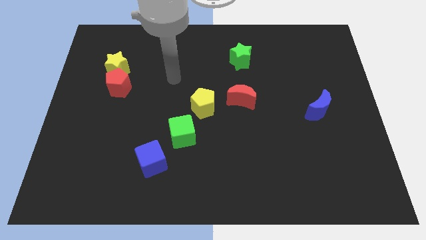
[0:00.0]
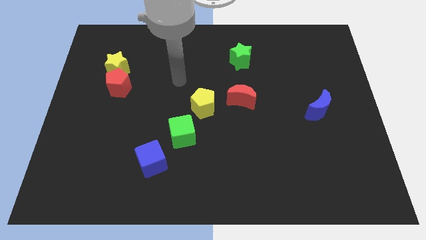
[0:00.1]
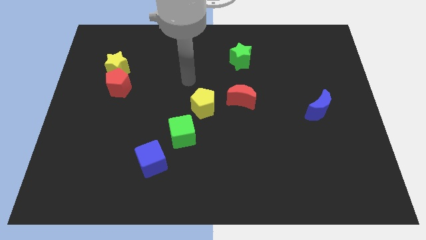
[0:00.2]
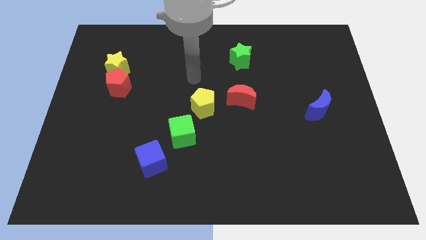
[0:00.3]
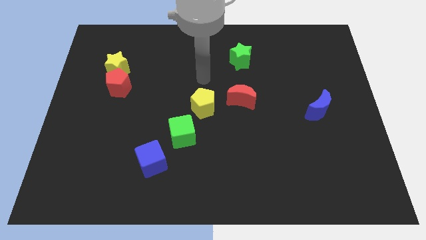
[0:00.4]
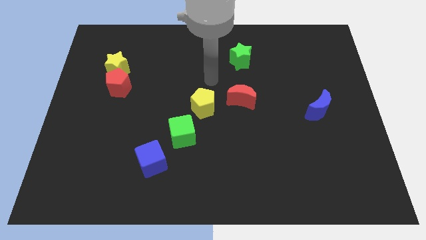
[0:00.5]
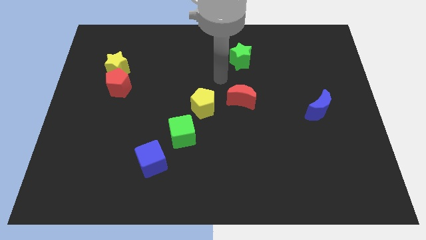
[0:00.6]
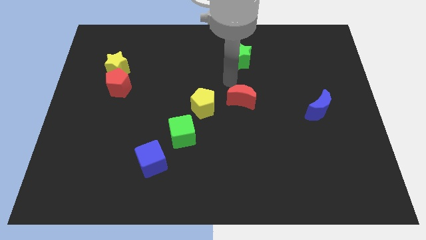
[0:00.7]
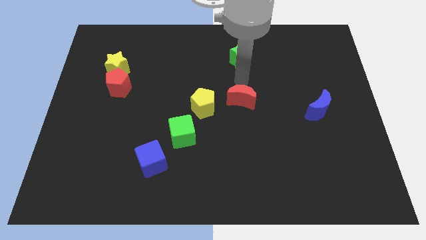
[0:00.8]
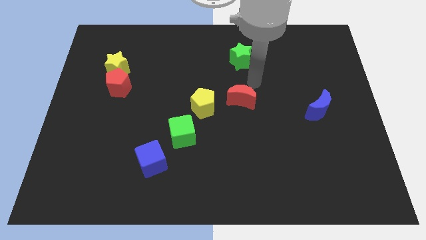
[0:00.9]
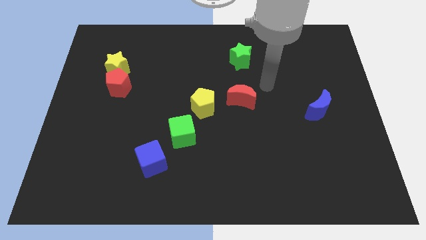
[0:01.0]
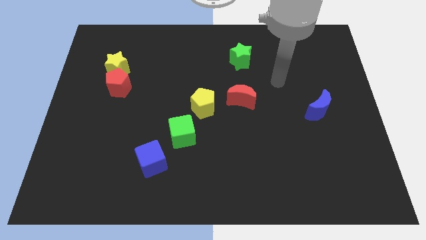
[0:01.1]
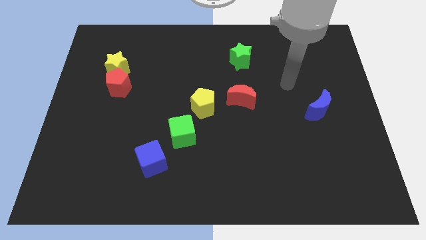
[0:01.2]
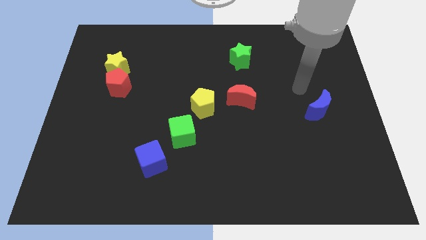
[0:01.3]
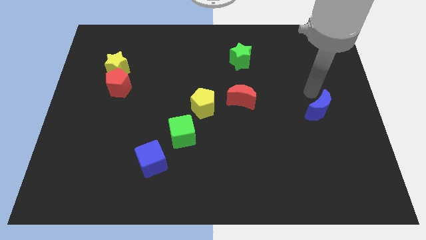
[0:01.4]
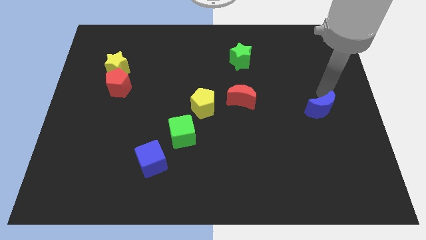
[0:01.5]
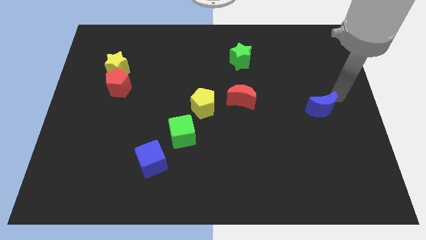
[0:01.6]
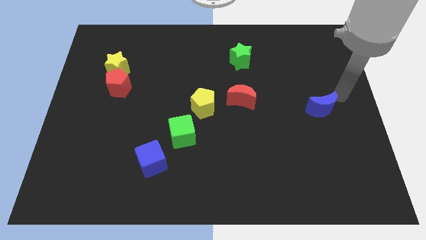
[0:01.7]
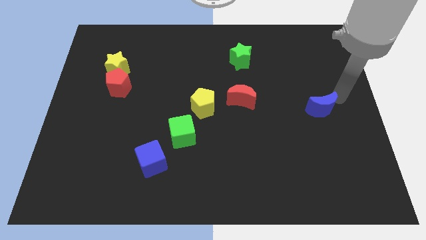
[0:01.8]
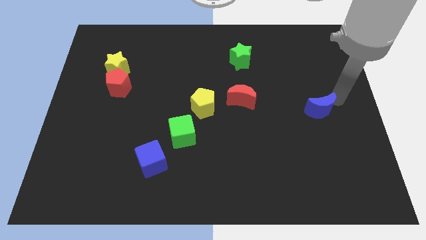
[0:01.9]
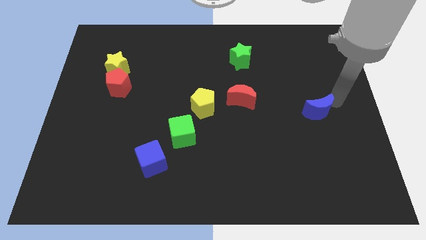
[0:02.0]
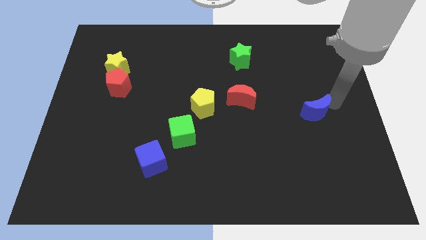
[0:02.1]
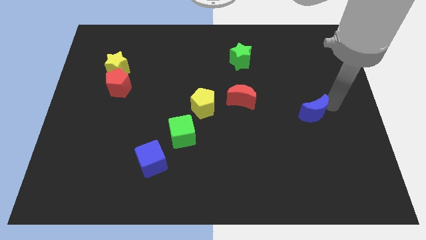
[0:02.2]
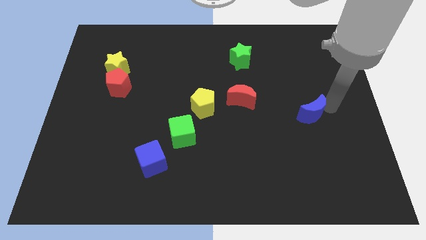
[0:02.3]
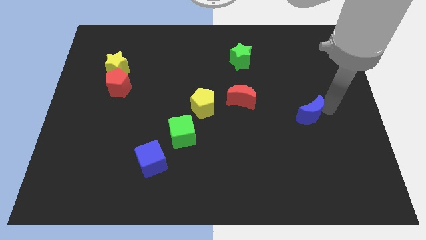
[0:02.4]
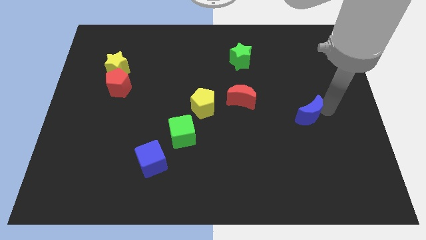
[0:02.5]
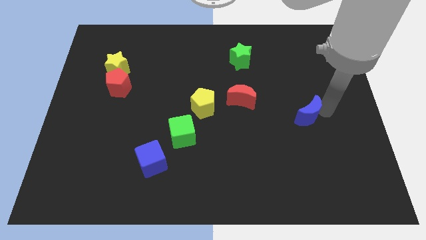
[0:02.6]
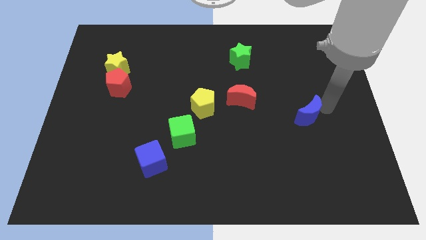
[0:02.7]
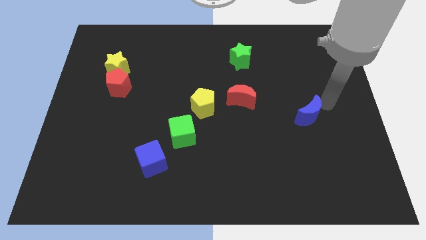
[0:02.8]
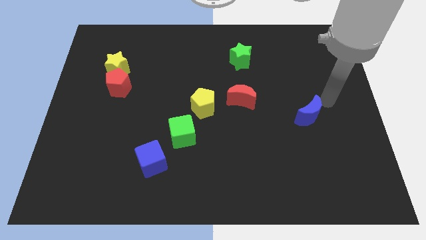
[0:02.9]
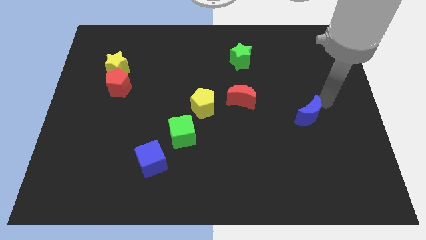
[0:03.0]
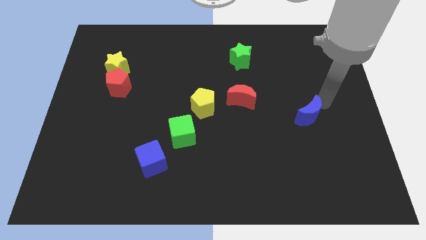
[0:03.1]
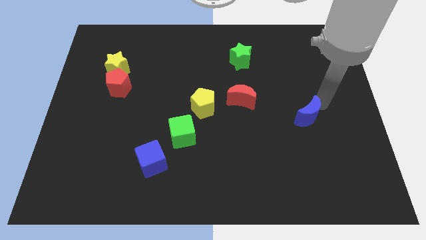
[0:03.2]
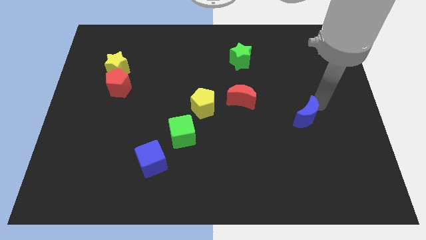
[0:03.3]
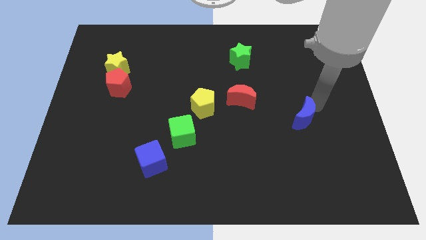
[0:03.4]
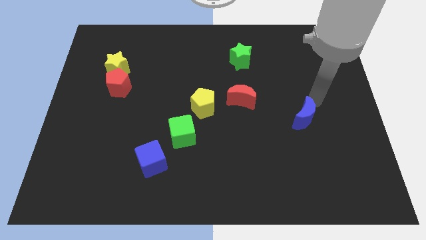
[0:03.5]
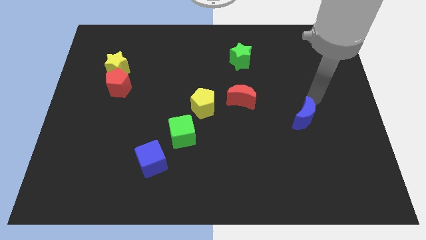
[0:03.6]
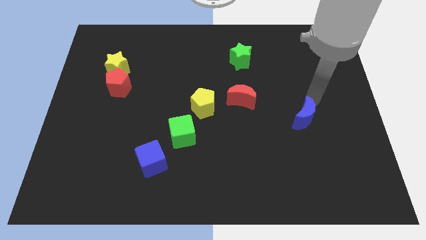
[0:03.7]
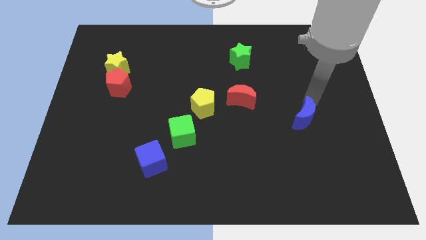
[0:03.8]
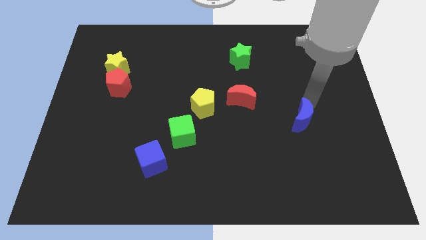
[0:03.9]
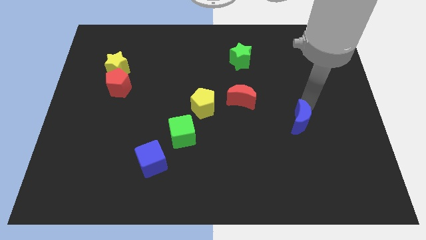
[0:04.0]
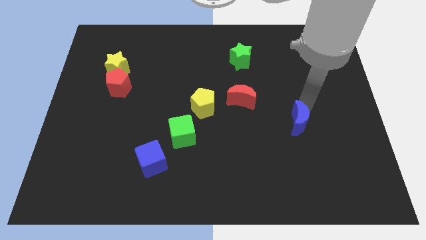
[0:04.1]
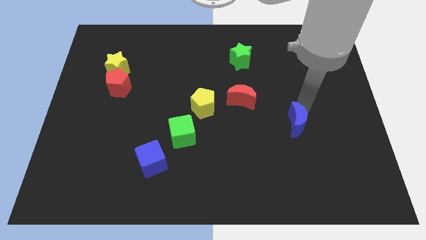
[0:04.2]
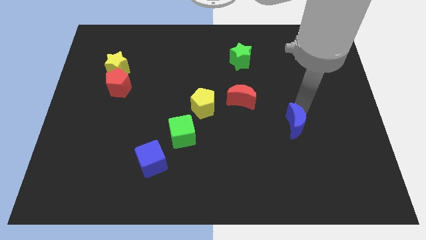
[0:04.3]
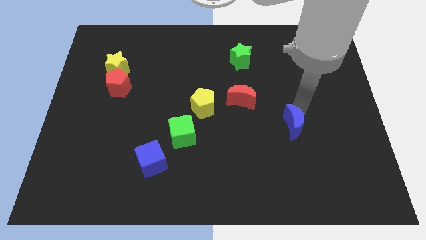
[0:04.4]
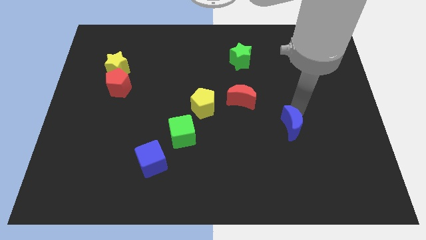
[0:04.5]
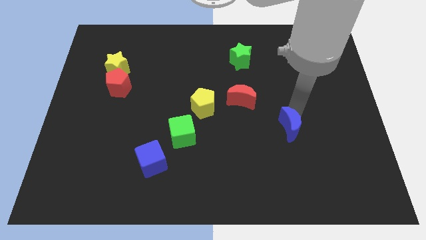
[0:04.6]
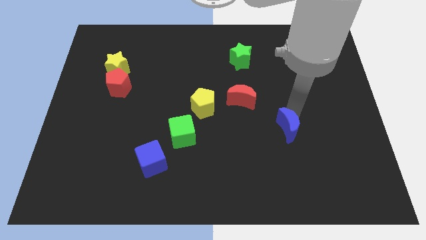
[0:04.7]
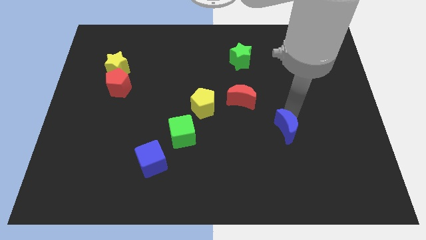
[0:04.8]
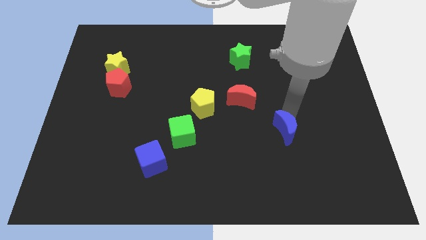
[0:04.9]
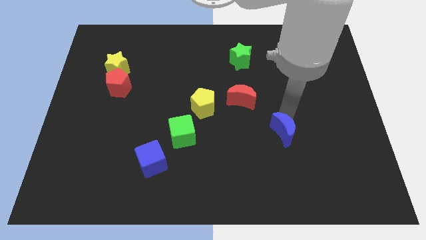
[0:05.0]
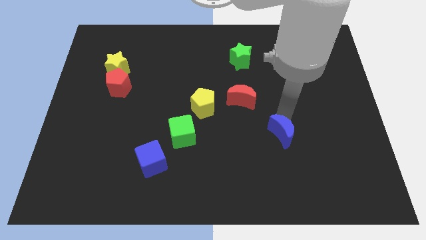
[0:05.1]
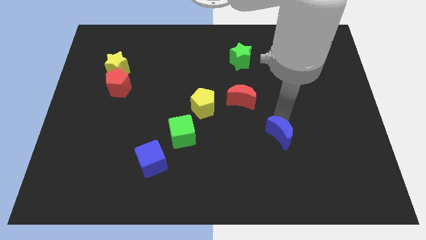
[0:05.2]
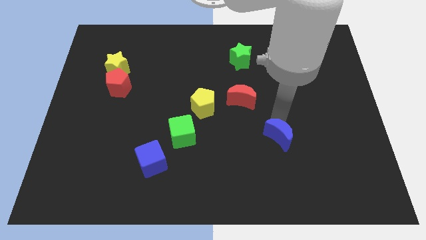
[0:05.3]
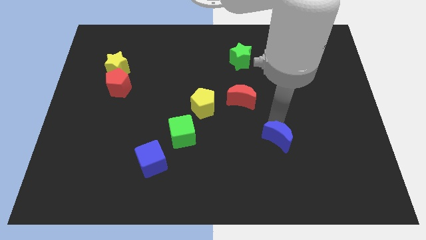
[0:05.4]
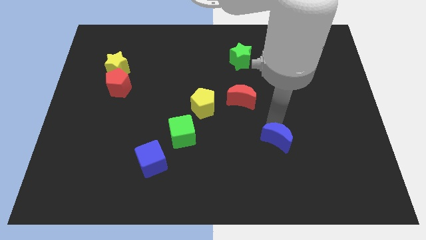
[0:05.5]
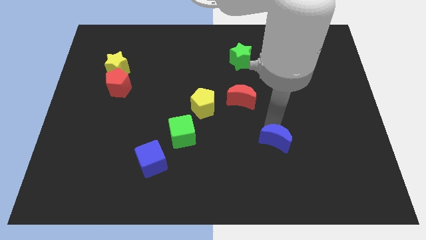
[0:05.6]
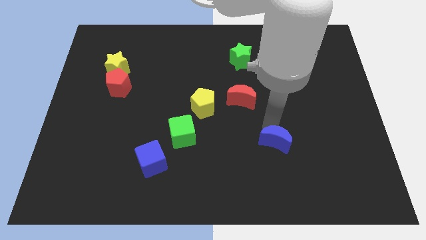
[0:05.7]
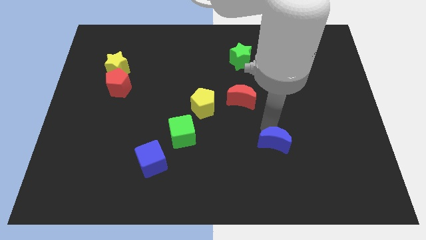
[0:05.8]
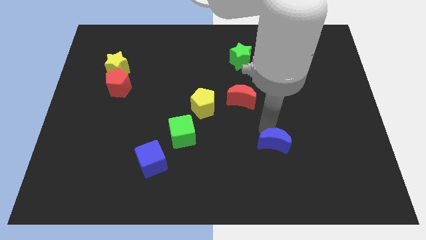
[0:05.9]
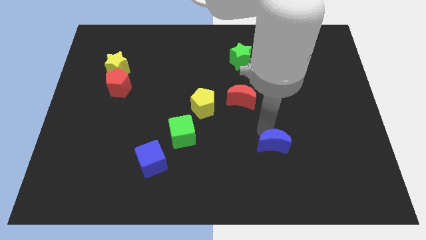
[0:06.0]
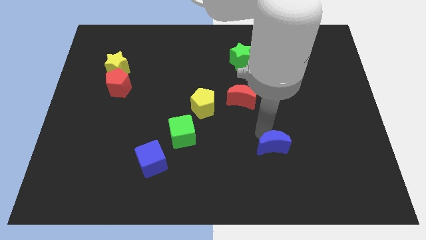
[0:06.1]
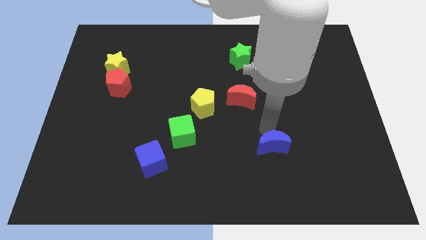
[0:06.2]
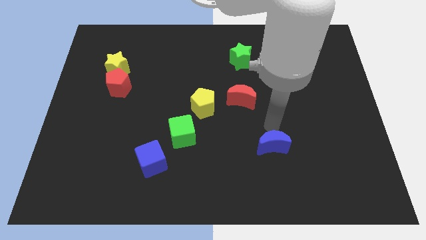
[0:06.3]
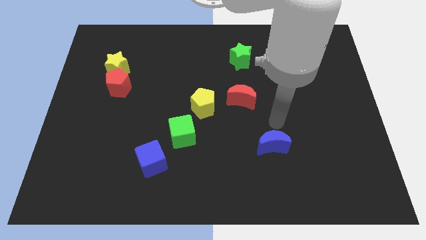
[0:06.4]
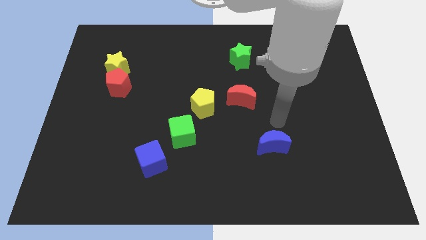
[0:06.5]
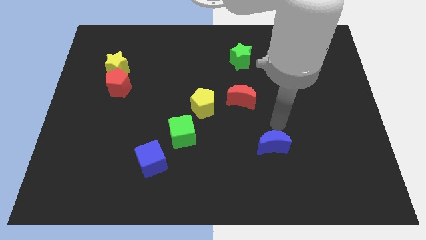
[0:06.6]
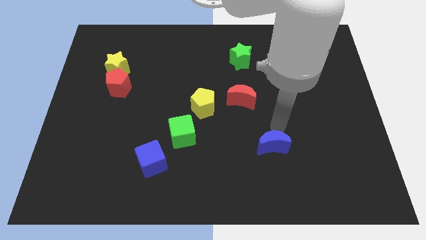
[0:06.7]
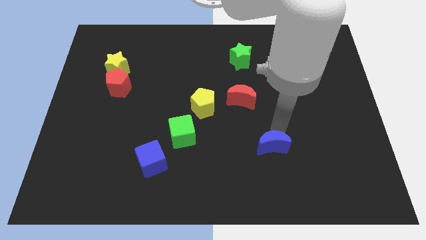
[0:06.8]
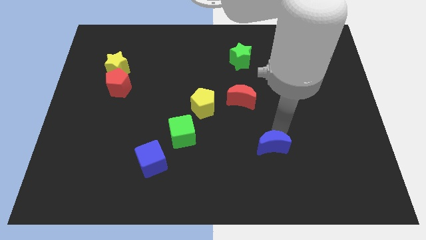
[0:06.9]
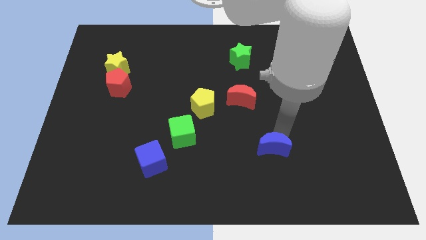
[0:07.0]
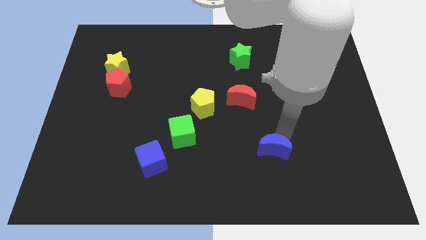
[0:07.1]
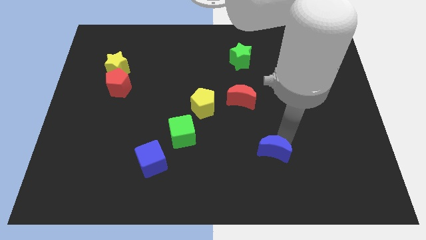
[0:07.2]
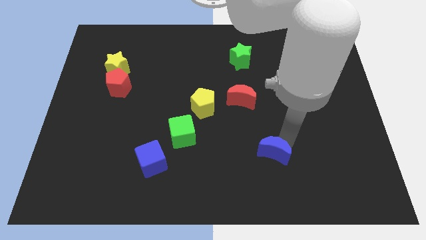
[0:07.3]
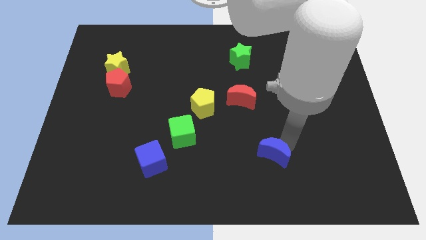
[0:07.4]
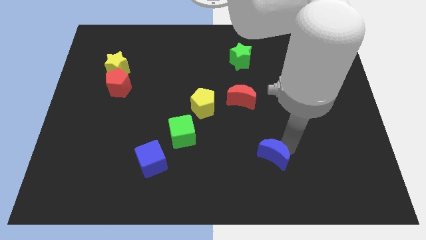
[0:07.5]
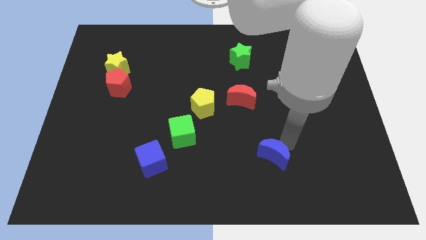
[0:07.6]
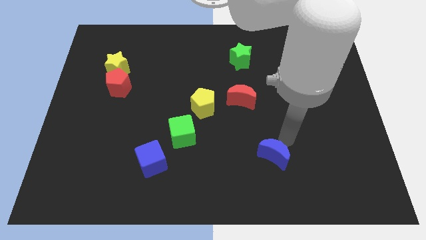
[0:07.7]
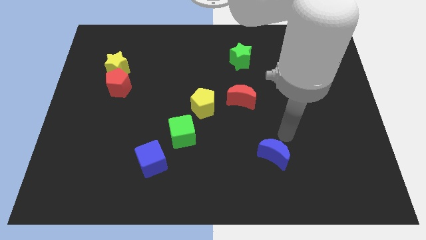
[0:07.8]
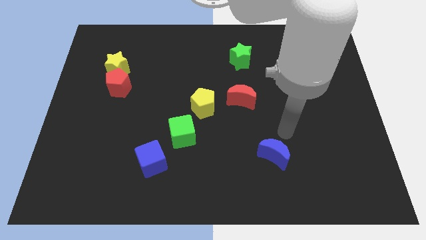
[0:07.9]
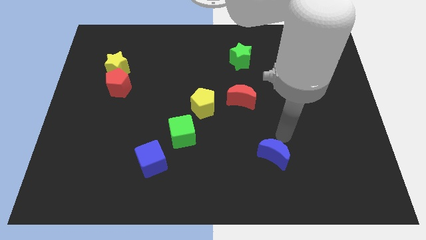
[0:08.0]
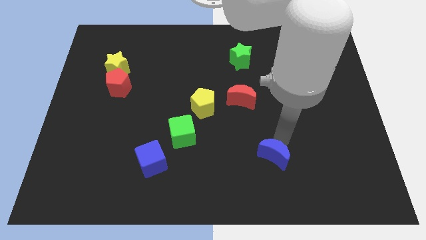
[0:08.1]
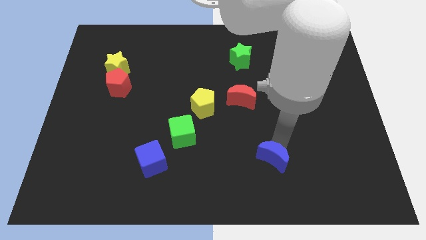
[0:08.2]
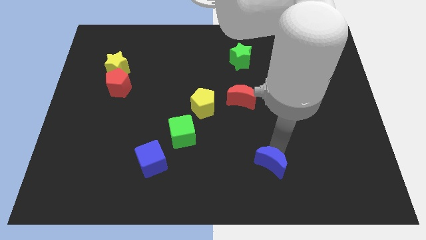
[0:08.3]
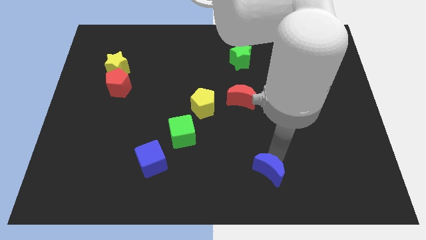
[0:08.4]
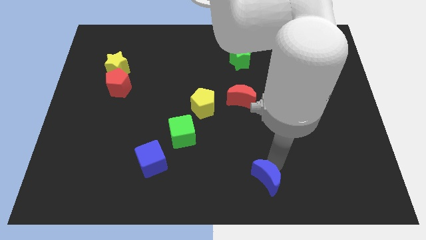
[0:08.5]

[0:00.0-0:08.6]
put the blue moon to the bottom
